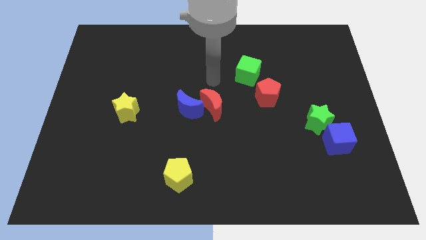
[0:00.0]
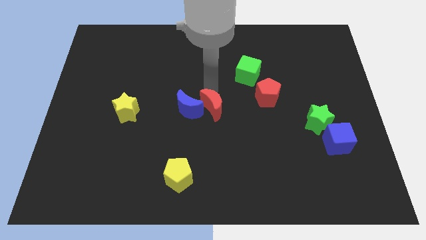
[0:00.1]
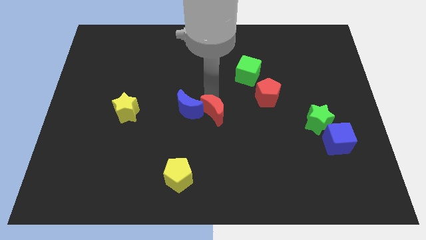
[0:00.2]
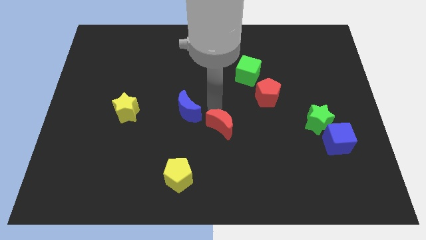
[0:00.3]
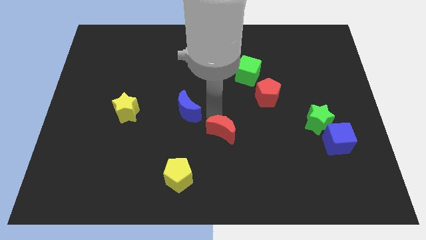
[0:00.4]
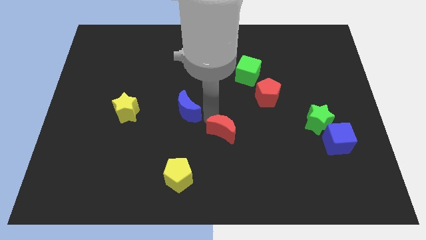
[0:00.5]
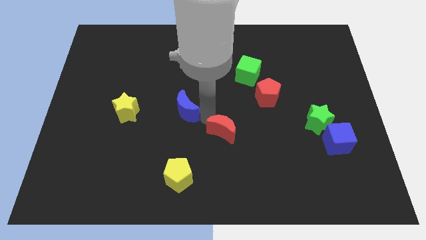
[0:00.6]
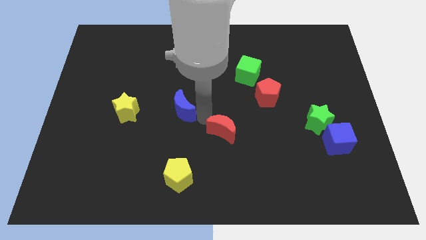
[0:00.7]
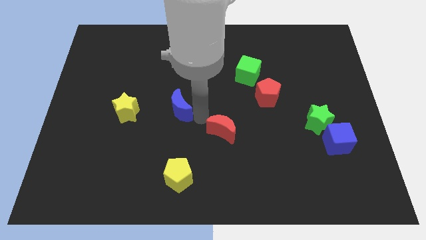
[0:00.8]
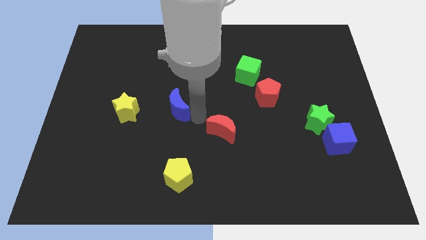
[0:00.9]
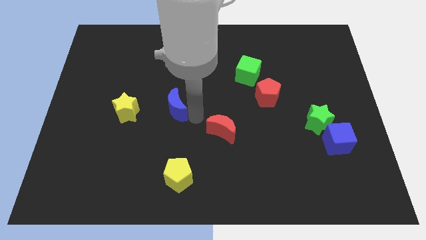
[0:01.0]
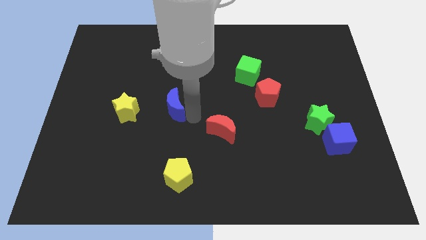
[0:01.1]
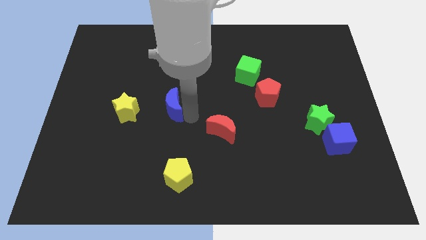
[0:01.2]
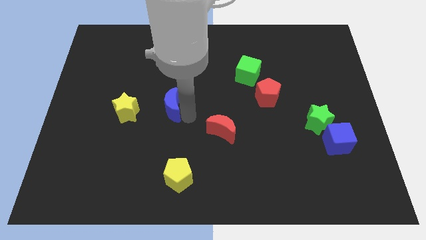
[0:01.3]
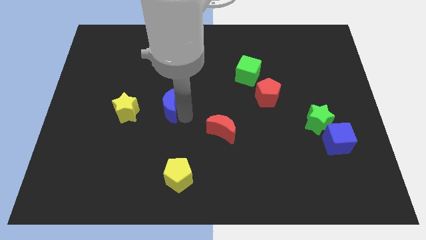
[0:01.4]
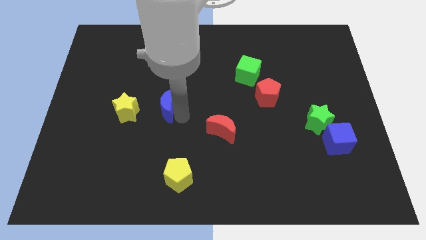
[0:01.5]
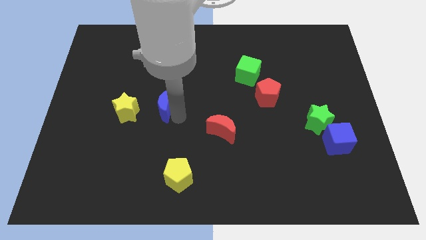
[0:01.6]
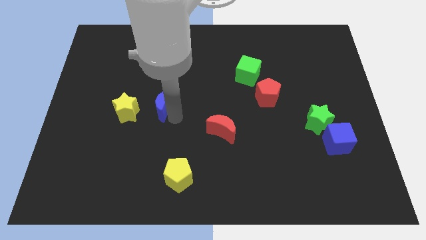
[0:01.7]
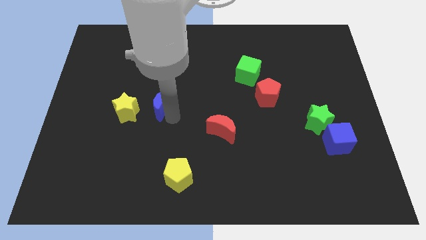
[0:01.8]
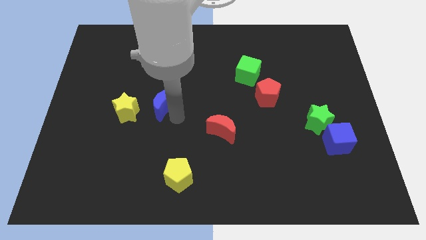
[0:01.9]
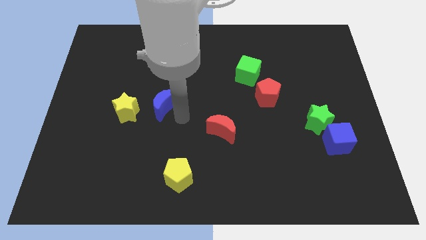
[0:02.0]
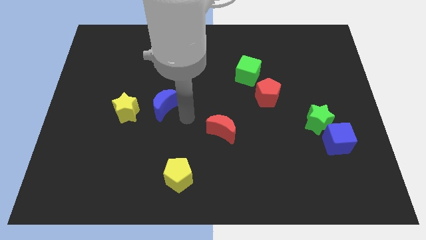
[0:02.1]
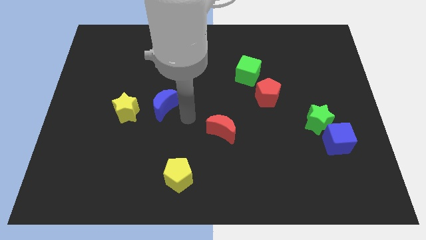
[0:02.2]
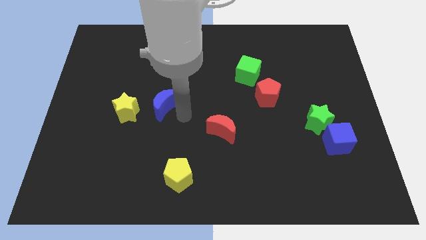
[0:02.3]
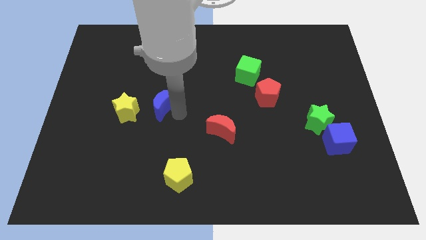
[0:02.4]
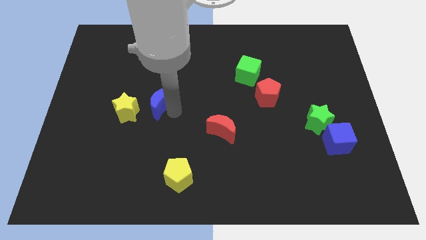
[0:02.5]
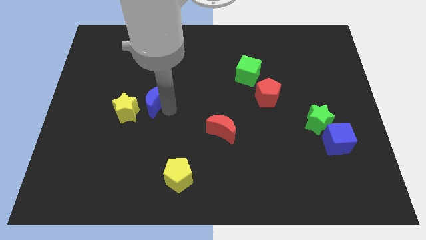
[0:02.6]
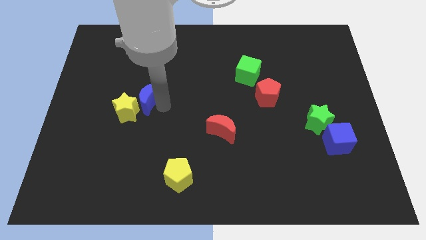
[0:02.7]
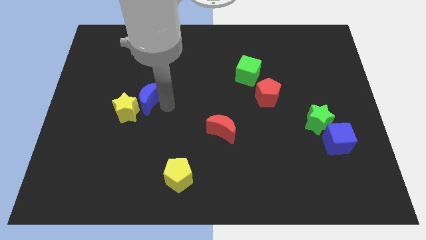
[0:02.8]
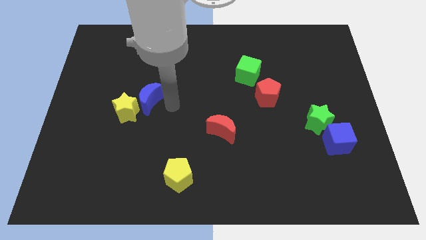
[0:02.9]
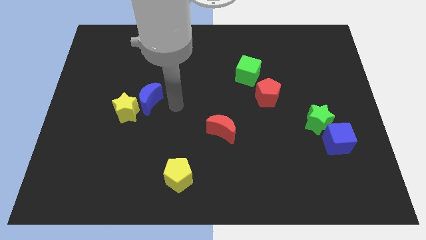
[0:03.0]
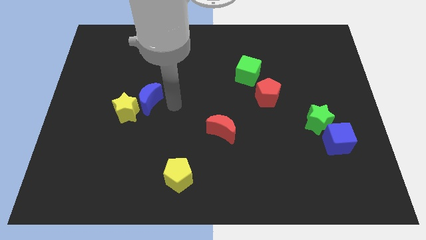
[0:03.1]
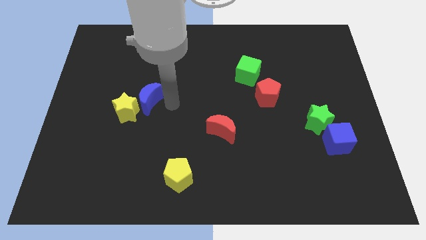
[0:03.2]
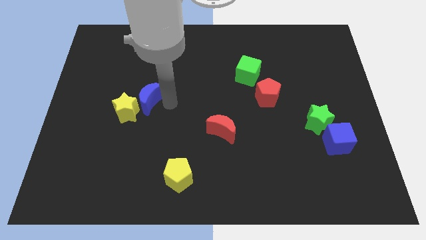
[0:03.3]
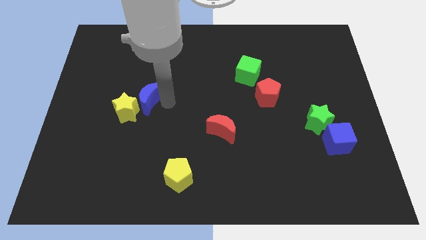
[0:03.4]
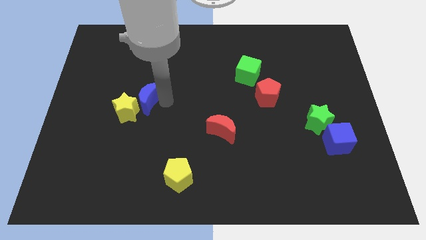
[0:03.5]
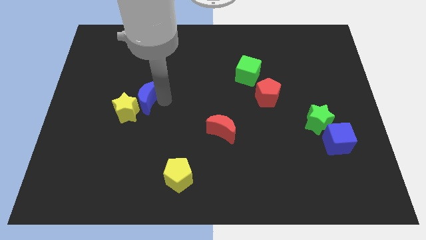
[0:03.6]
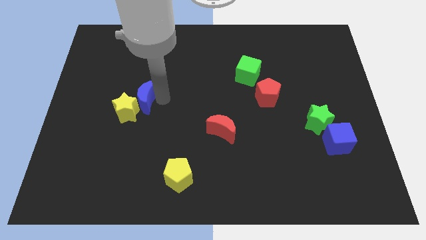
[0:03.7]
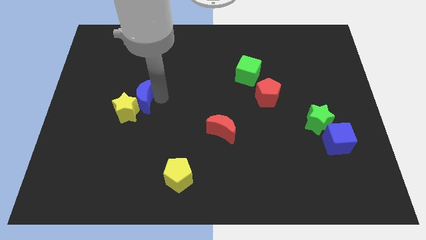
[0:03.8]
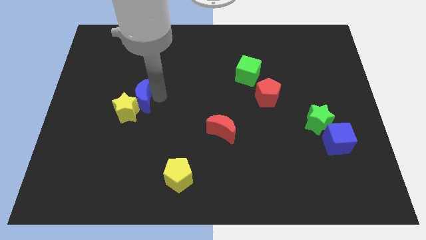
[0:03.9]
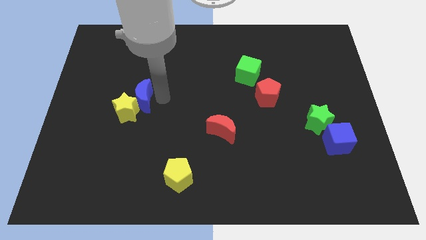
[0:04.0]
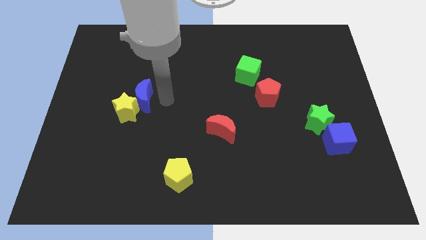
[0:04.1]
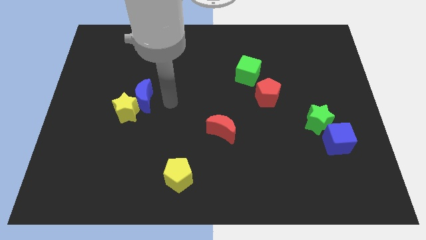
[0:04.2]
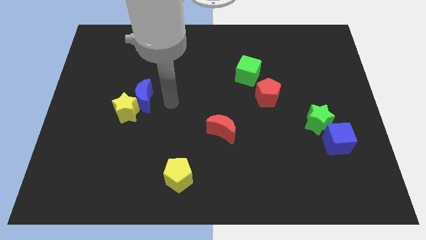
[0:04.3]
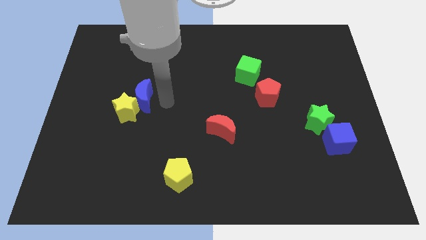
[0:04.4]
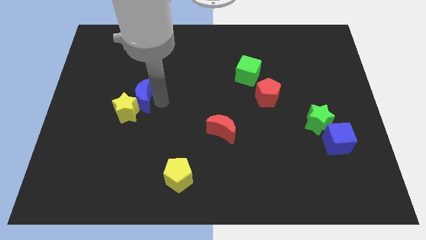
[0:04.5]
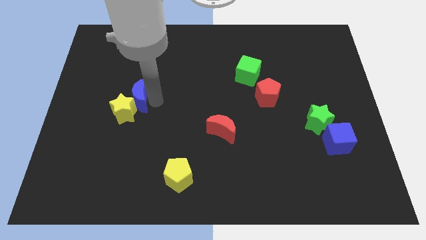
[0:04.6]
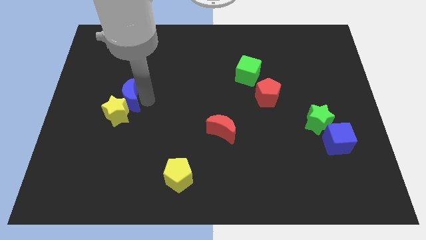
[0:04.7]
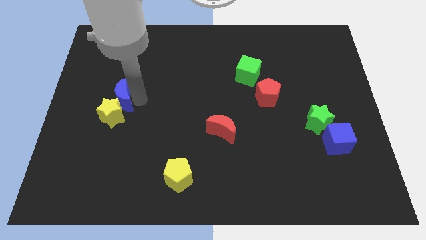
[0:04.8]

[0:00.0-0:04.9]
move the blue moon diagonally up and to the left of the yellow star

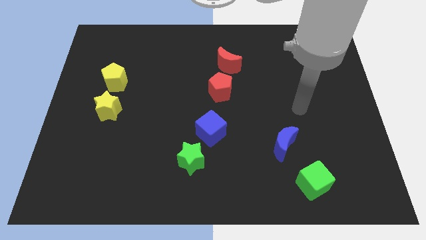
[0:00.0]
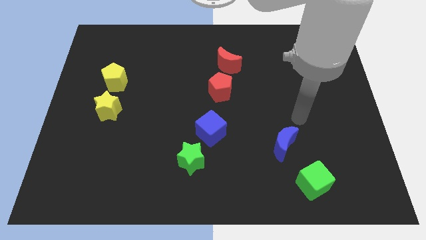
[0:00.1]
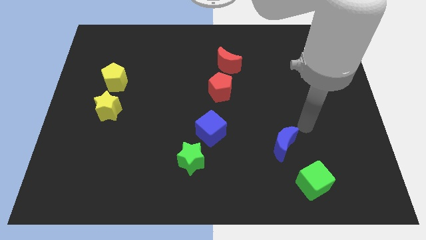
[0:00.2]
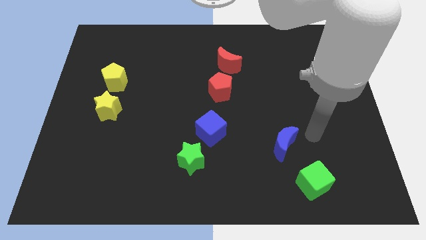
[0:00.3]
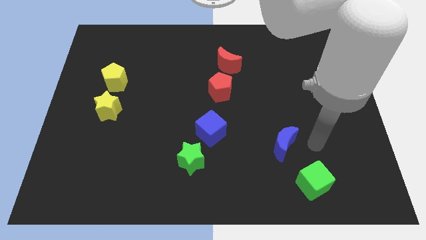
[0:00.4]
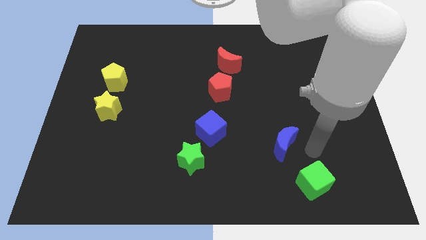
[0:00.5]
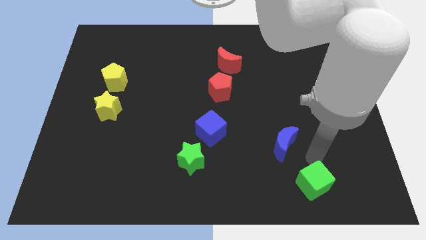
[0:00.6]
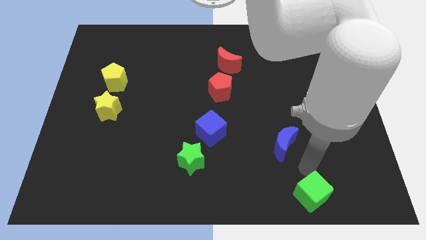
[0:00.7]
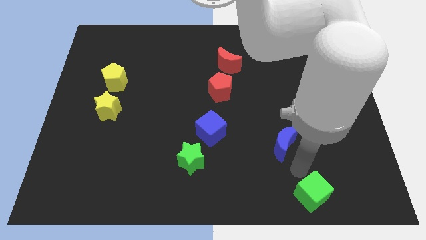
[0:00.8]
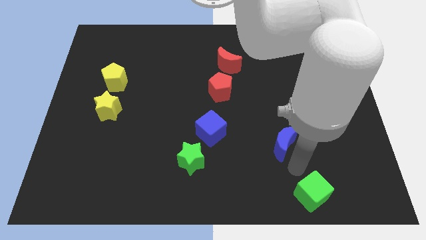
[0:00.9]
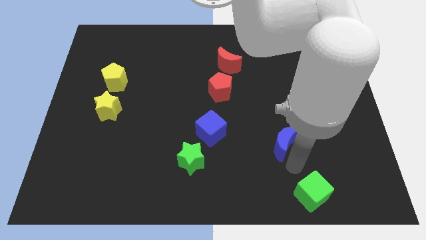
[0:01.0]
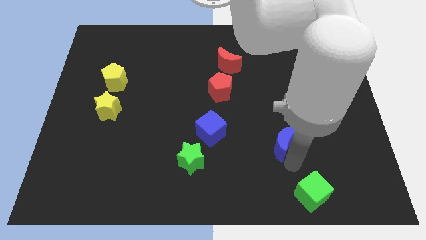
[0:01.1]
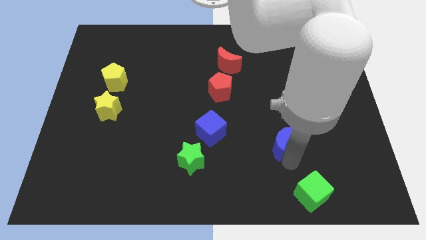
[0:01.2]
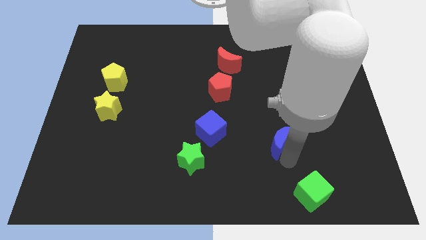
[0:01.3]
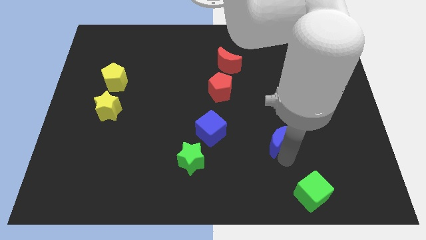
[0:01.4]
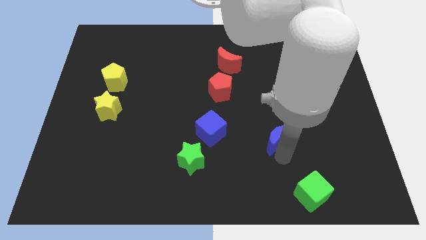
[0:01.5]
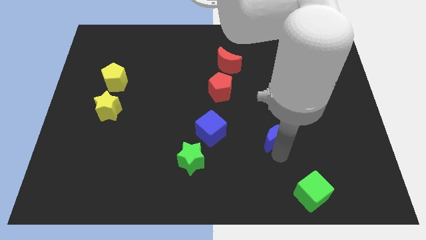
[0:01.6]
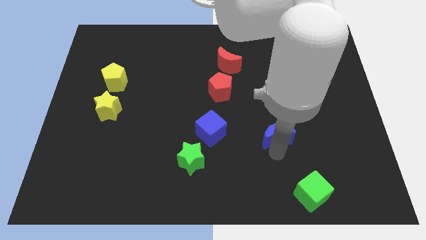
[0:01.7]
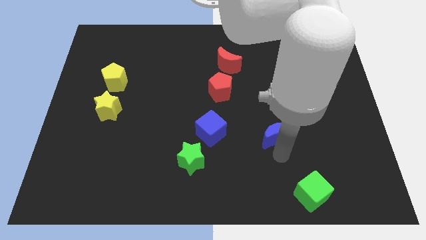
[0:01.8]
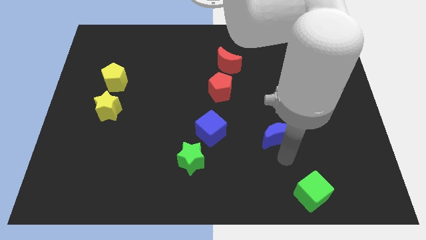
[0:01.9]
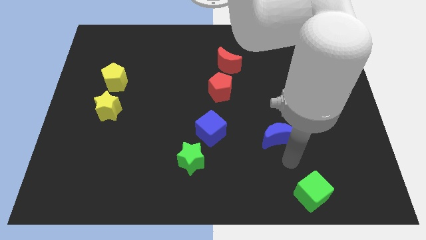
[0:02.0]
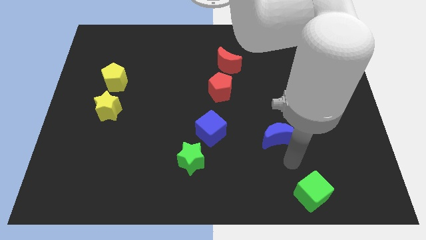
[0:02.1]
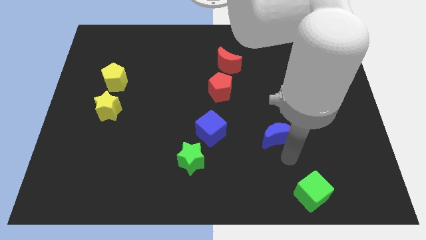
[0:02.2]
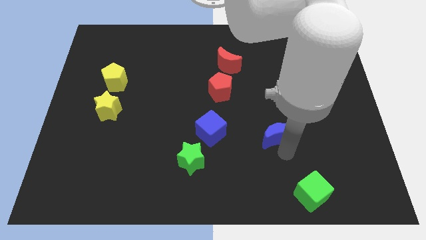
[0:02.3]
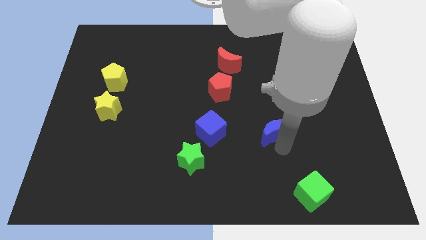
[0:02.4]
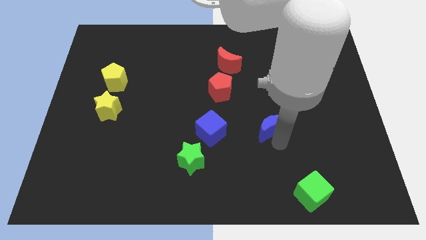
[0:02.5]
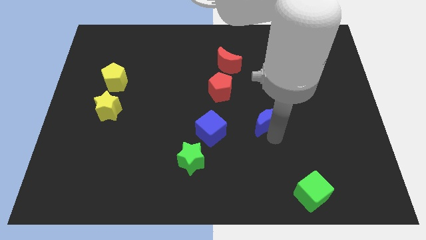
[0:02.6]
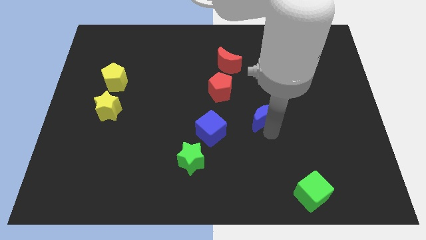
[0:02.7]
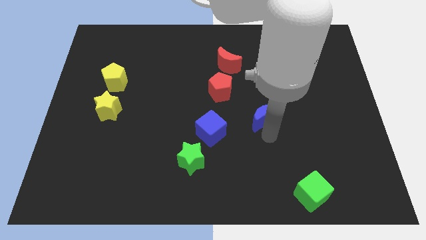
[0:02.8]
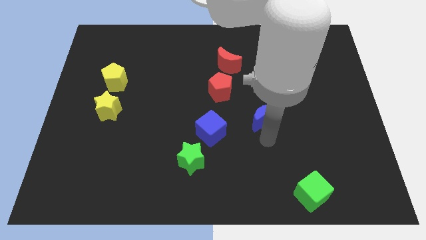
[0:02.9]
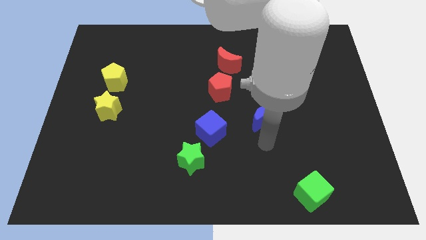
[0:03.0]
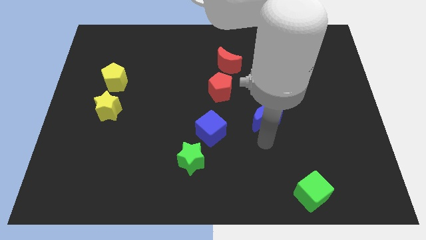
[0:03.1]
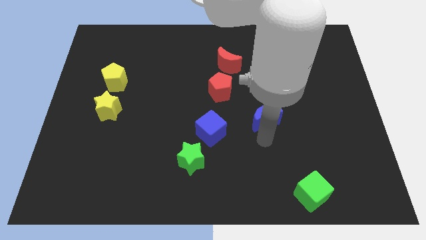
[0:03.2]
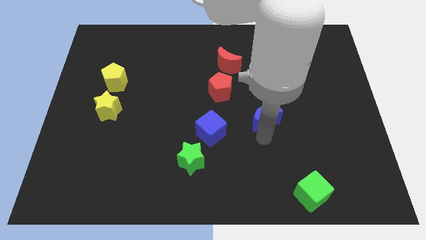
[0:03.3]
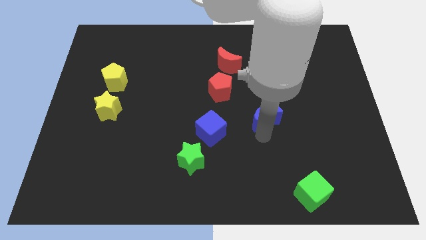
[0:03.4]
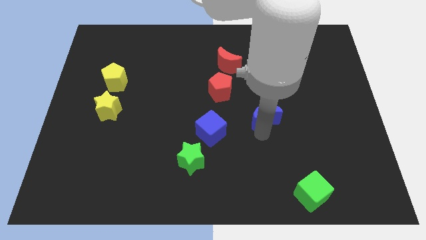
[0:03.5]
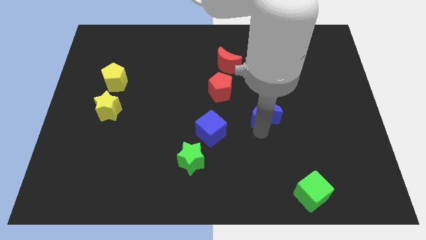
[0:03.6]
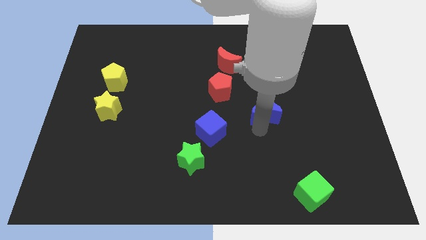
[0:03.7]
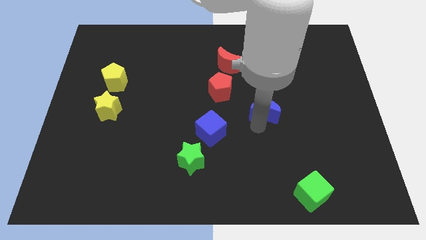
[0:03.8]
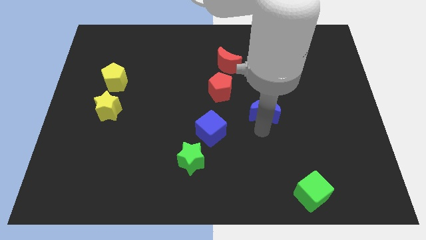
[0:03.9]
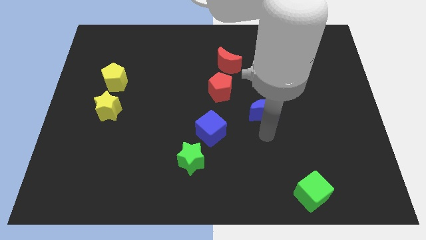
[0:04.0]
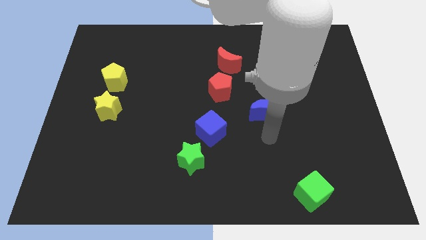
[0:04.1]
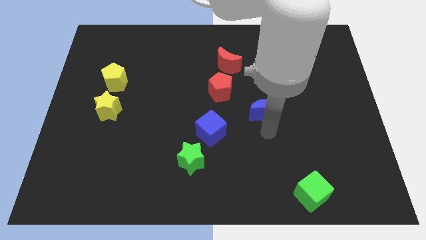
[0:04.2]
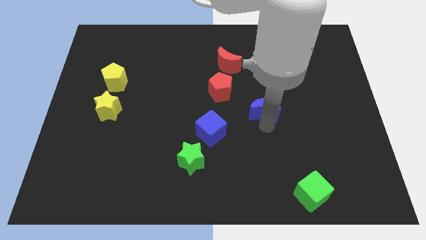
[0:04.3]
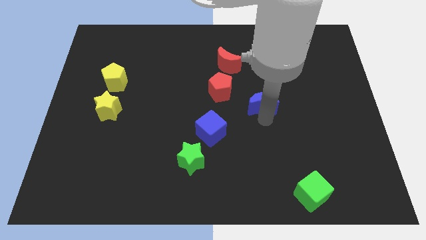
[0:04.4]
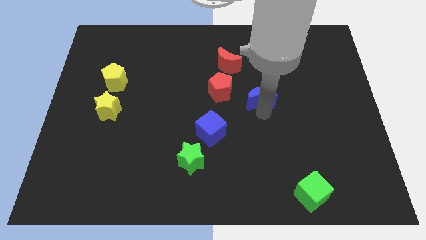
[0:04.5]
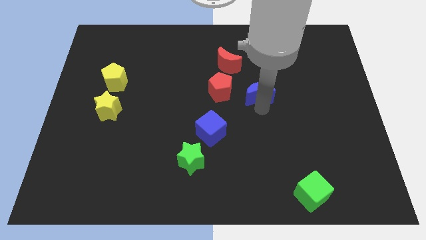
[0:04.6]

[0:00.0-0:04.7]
move the blue moon to the bottom right side of the red moon
